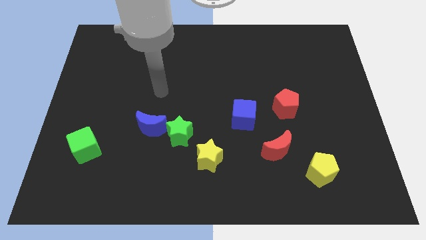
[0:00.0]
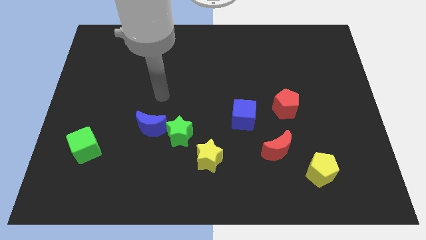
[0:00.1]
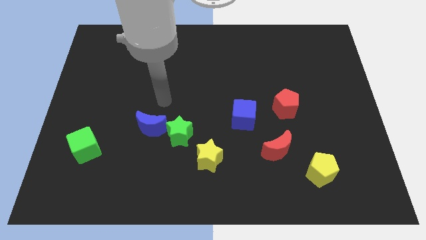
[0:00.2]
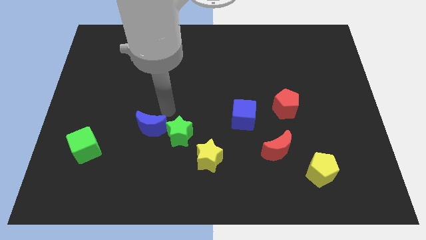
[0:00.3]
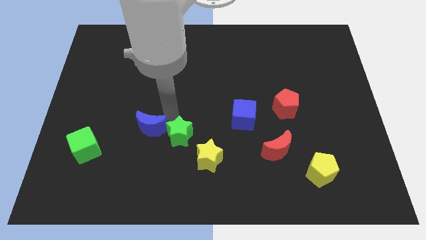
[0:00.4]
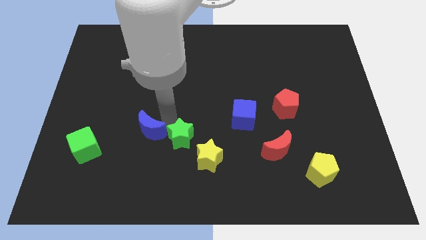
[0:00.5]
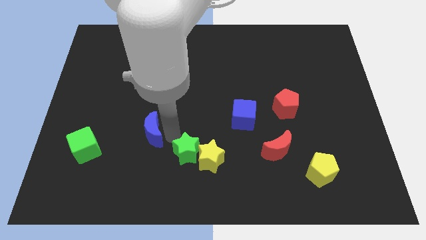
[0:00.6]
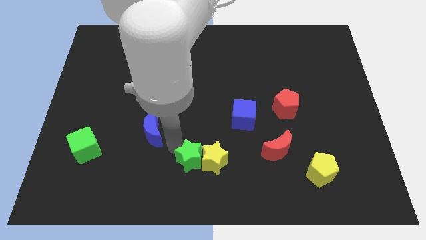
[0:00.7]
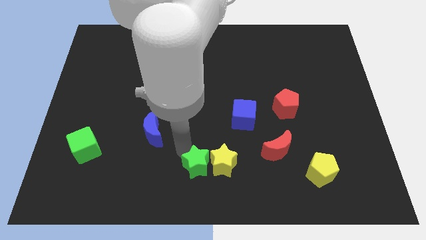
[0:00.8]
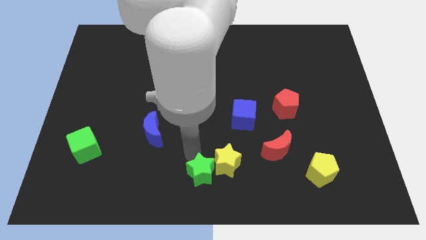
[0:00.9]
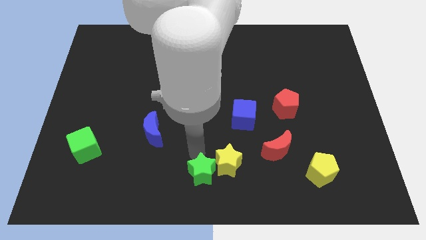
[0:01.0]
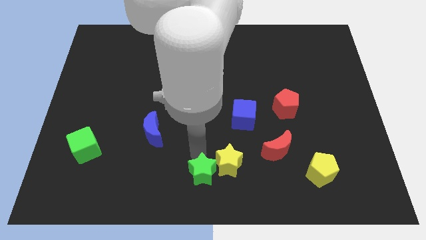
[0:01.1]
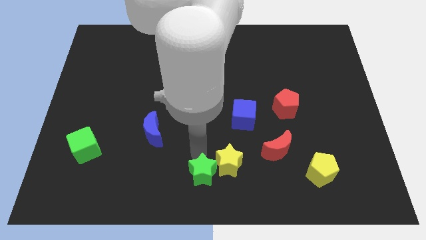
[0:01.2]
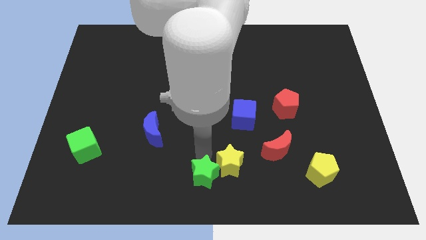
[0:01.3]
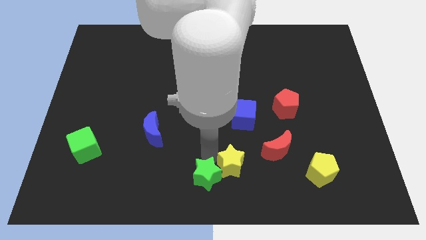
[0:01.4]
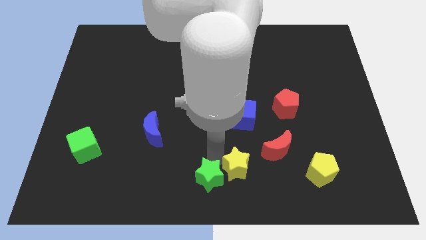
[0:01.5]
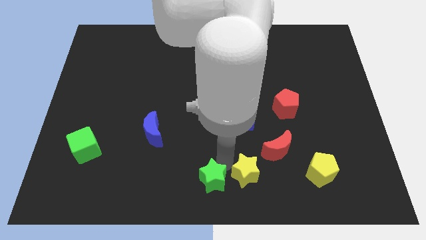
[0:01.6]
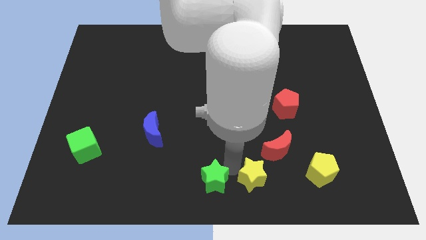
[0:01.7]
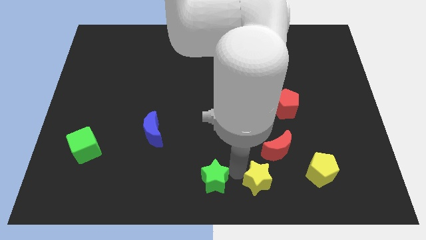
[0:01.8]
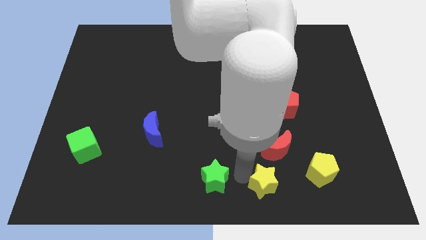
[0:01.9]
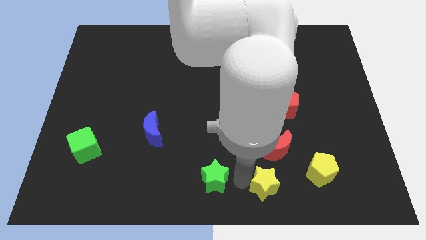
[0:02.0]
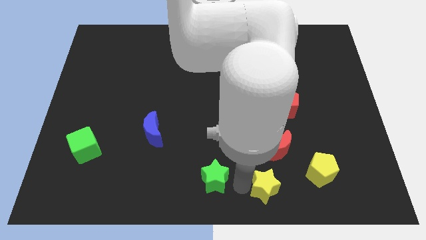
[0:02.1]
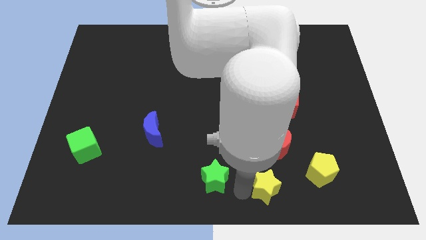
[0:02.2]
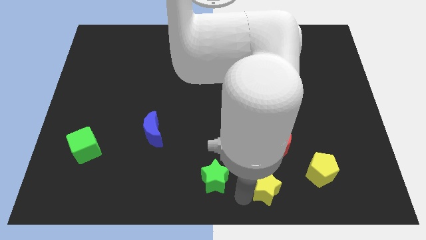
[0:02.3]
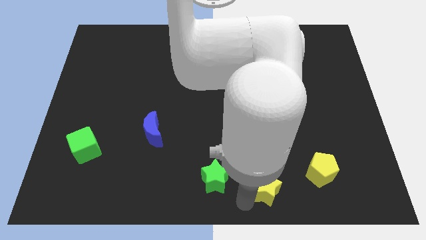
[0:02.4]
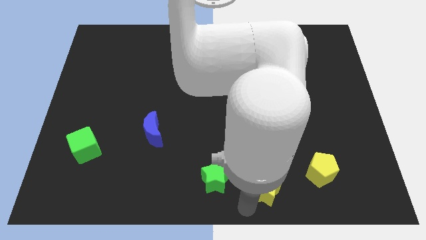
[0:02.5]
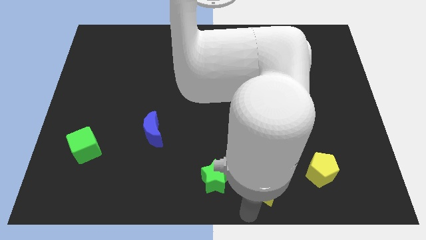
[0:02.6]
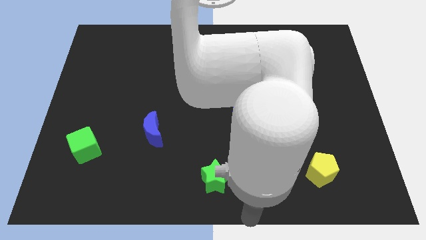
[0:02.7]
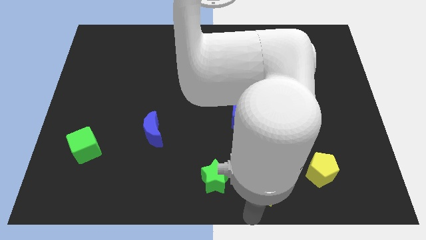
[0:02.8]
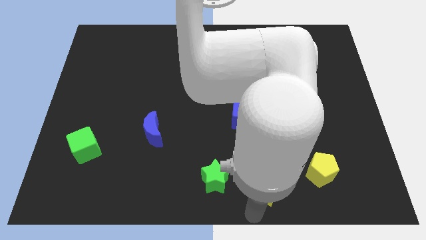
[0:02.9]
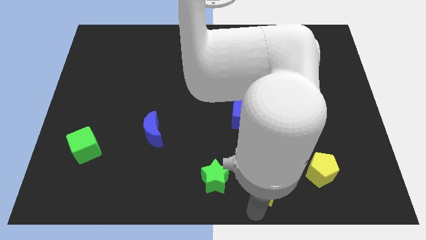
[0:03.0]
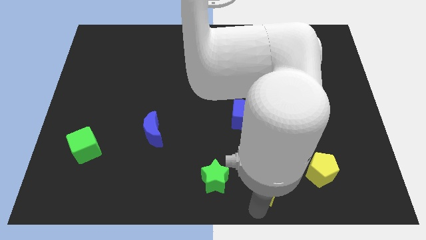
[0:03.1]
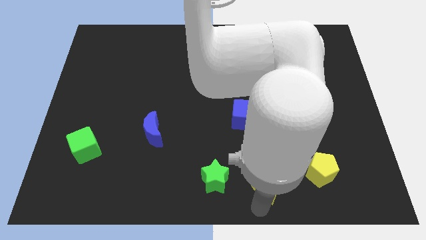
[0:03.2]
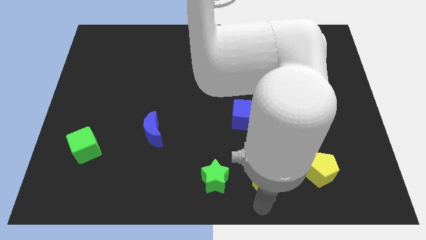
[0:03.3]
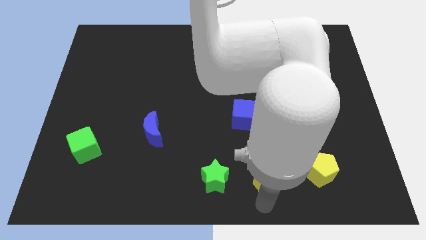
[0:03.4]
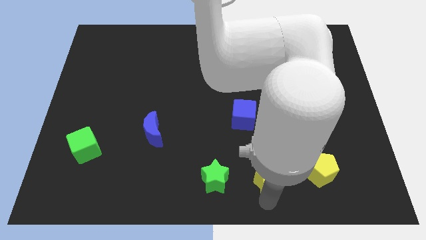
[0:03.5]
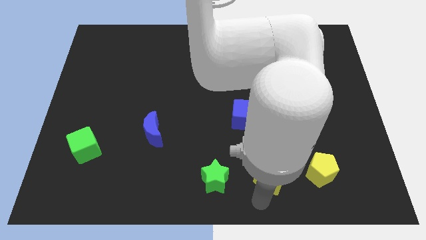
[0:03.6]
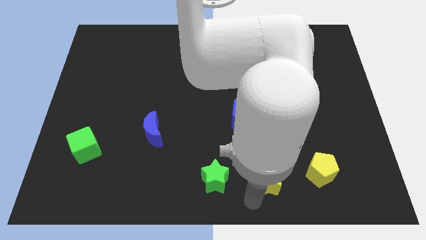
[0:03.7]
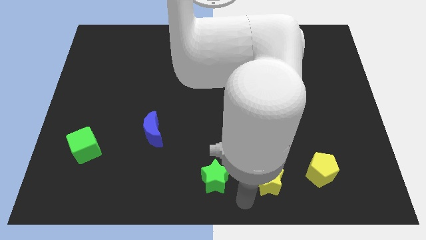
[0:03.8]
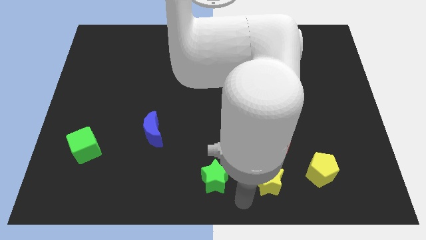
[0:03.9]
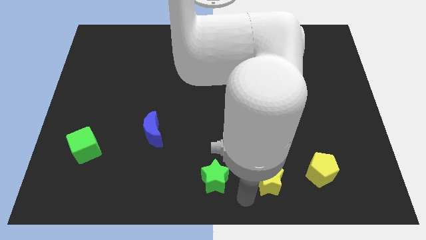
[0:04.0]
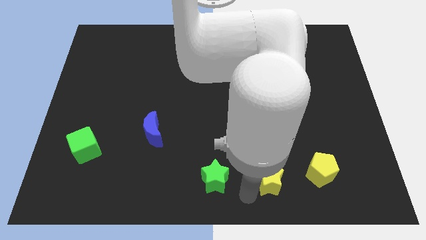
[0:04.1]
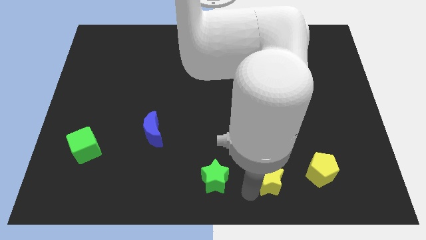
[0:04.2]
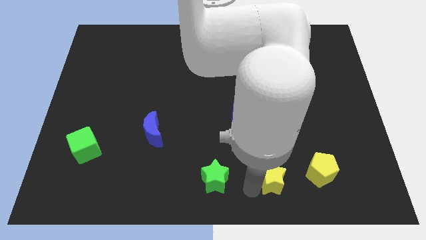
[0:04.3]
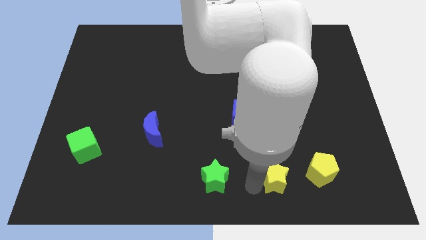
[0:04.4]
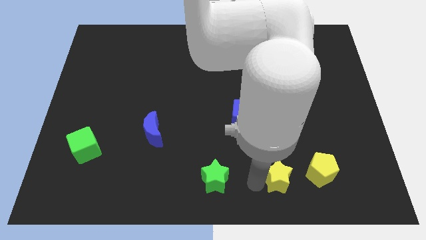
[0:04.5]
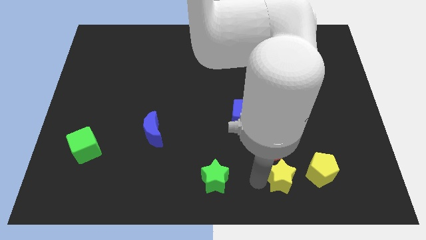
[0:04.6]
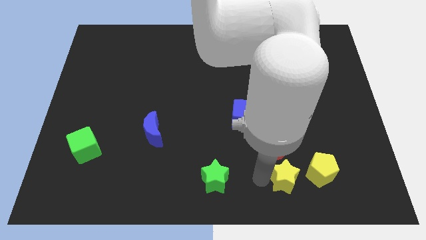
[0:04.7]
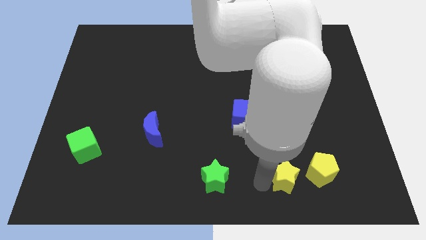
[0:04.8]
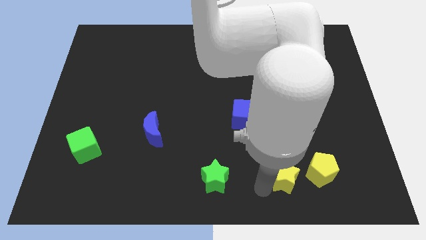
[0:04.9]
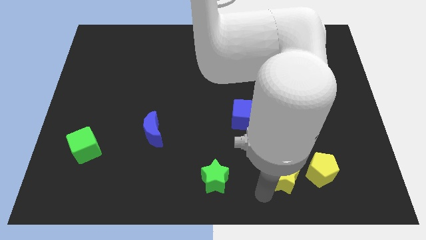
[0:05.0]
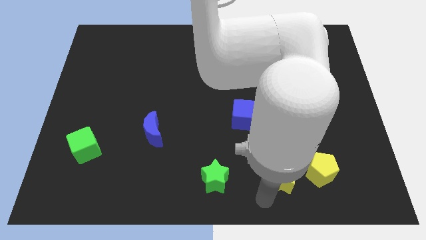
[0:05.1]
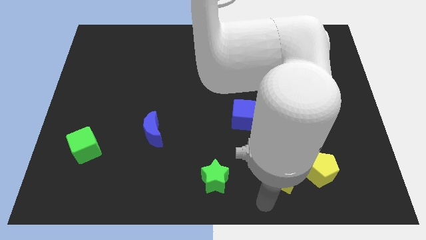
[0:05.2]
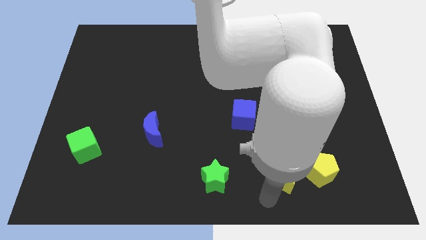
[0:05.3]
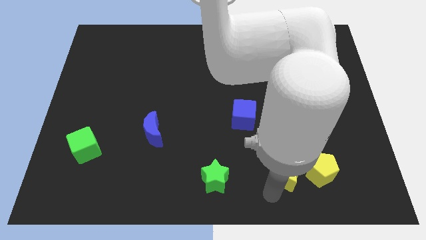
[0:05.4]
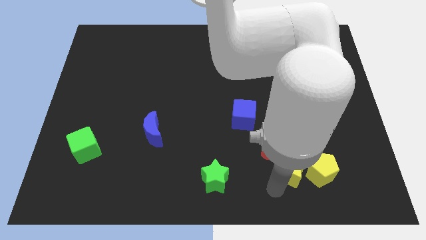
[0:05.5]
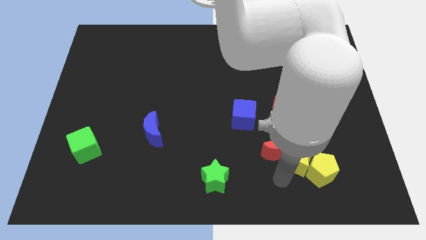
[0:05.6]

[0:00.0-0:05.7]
push the yellow star right of the red moon

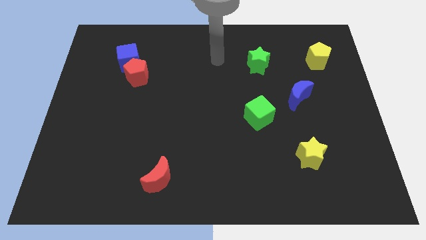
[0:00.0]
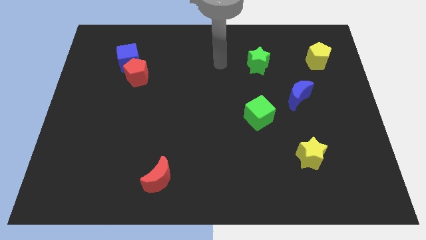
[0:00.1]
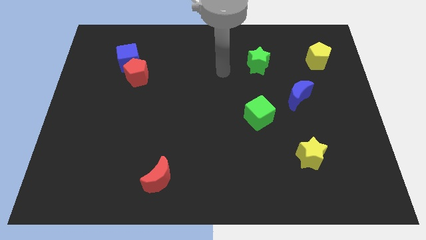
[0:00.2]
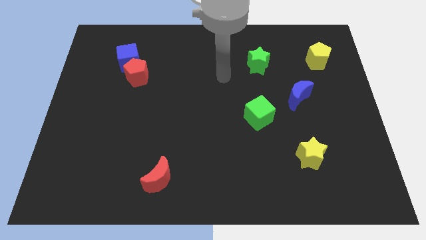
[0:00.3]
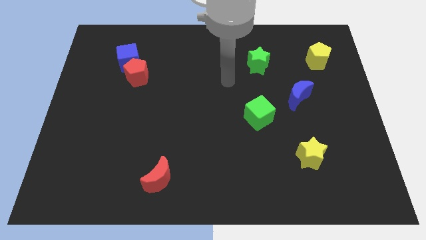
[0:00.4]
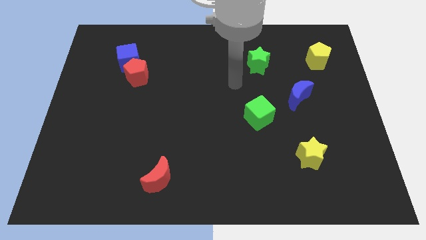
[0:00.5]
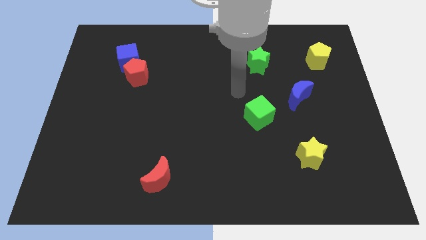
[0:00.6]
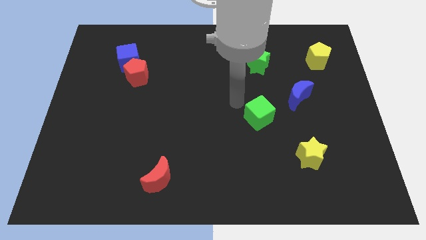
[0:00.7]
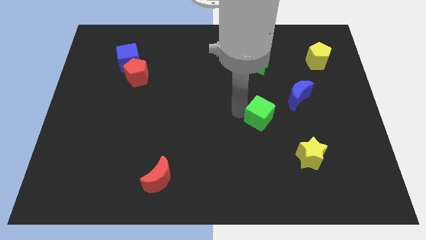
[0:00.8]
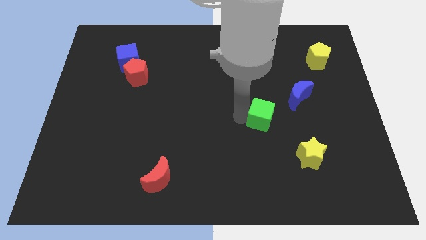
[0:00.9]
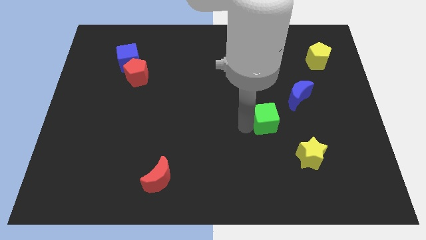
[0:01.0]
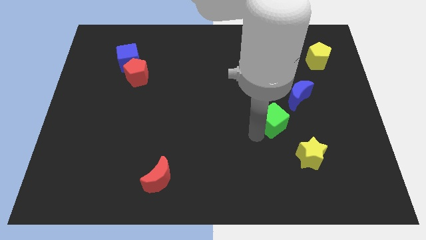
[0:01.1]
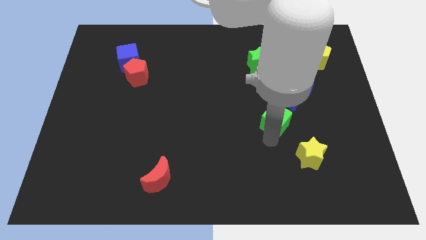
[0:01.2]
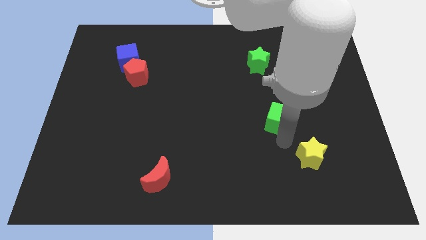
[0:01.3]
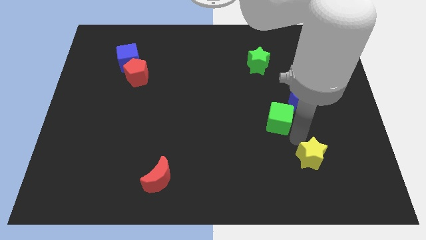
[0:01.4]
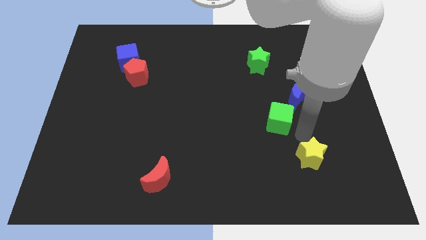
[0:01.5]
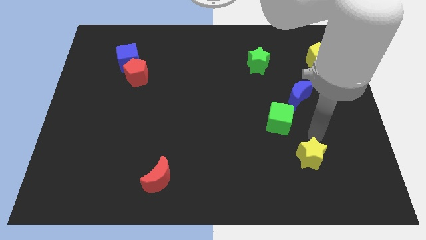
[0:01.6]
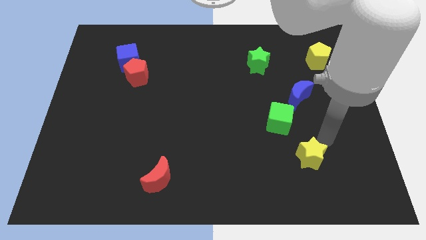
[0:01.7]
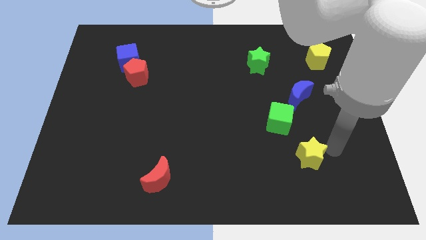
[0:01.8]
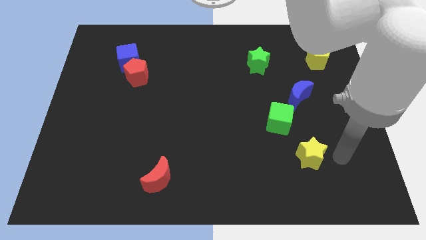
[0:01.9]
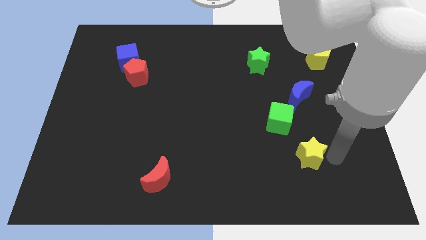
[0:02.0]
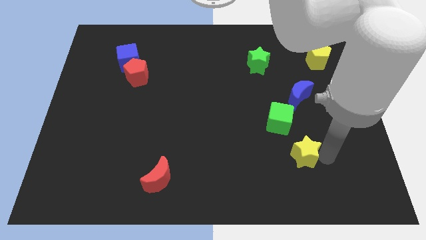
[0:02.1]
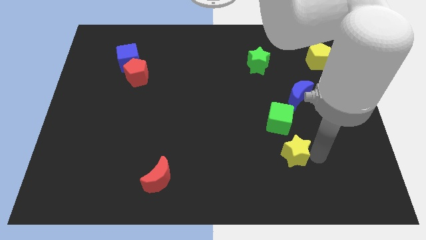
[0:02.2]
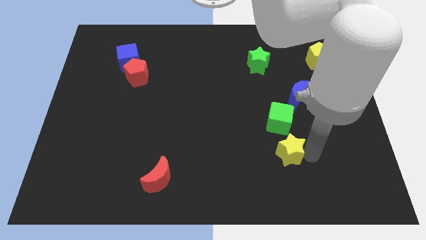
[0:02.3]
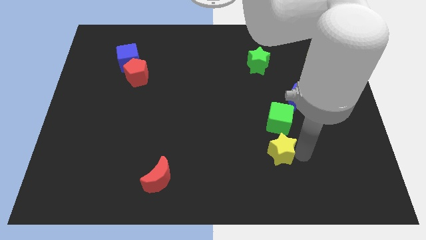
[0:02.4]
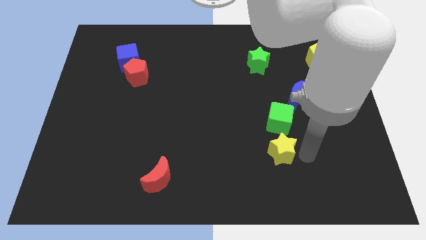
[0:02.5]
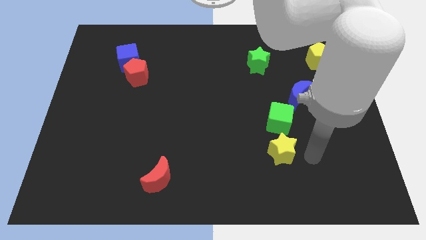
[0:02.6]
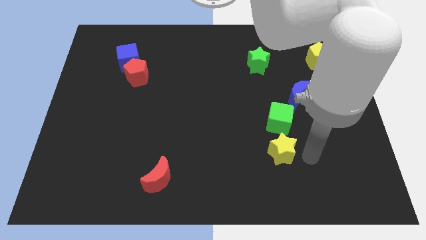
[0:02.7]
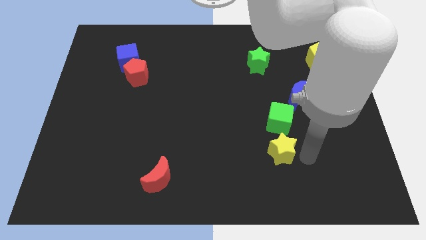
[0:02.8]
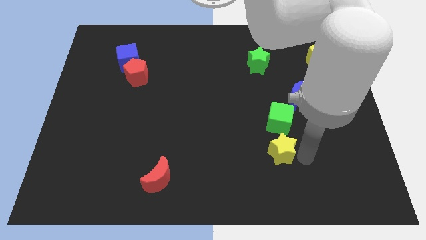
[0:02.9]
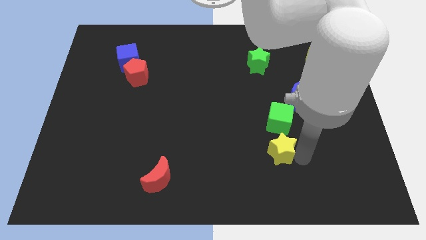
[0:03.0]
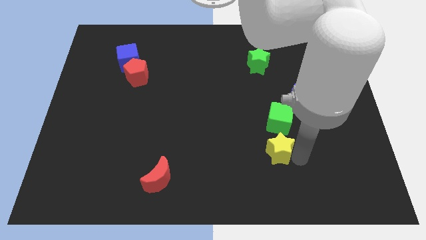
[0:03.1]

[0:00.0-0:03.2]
push the yellow star to the bottom left of the green cube
